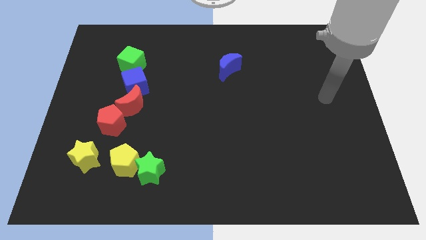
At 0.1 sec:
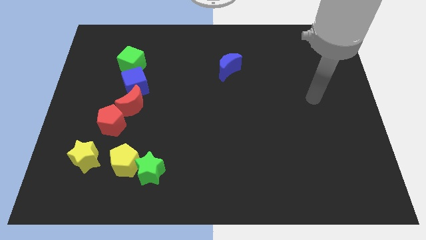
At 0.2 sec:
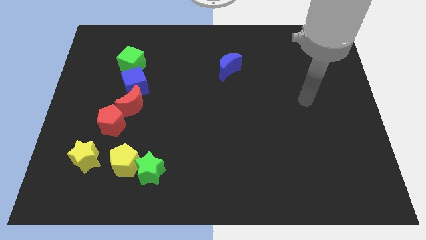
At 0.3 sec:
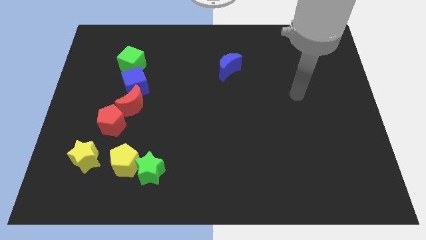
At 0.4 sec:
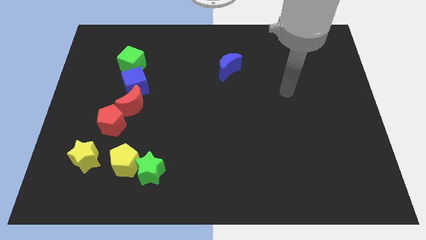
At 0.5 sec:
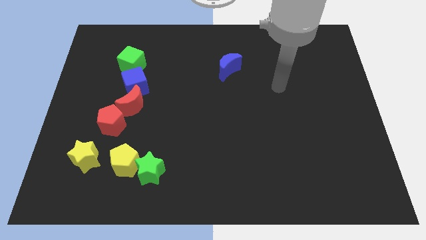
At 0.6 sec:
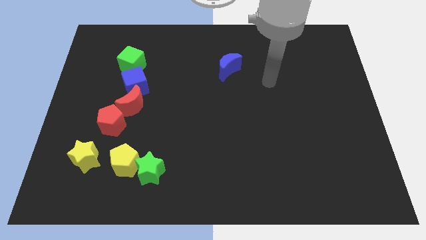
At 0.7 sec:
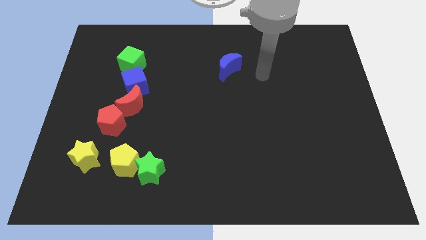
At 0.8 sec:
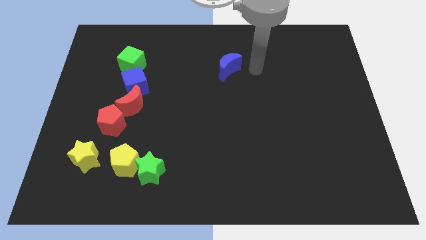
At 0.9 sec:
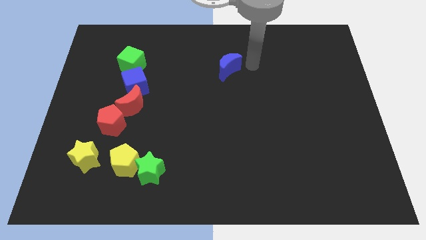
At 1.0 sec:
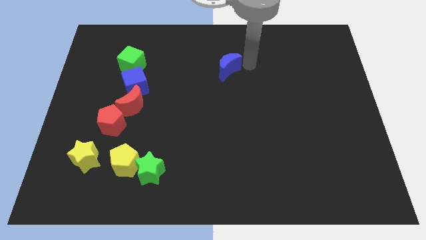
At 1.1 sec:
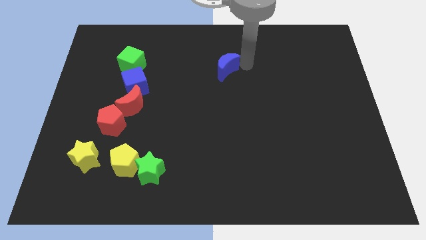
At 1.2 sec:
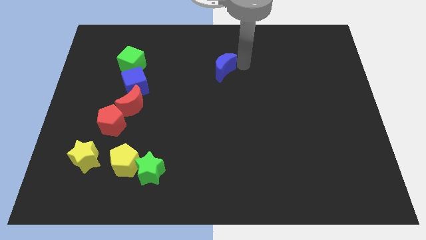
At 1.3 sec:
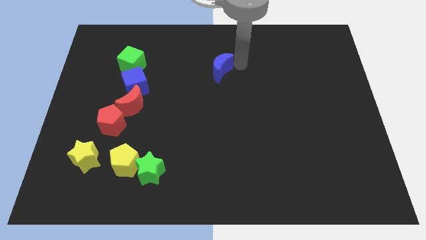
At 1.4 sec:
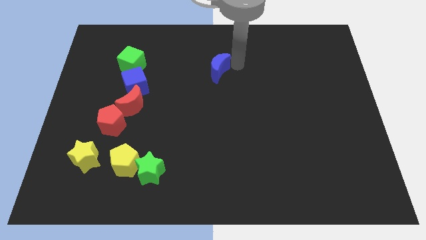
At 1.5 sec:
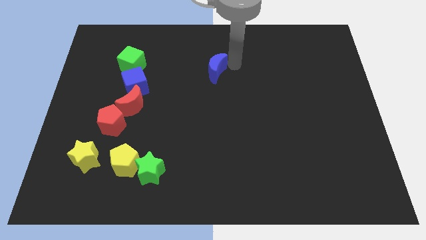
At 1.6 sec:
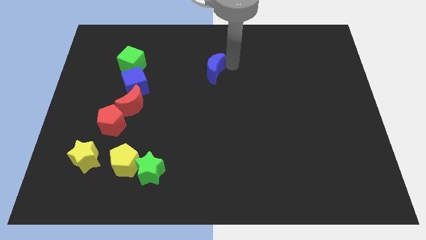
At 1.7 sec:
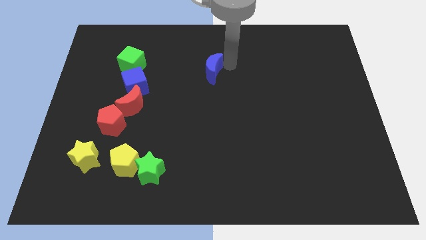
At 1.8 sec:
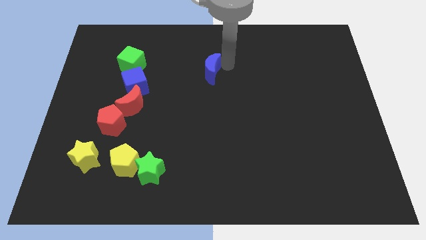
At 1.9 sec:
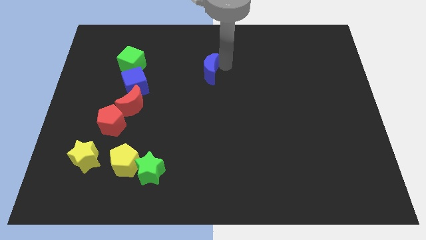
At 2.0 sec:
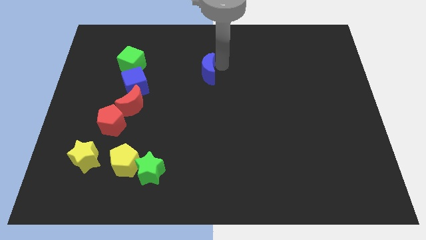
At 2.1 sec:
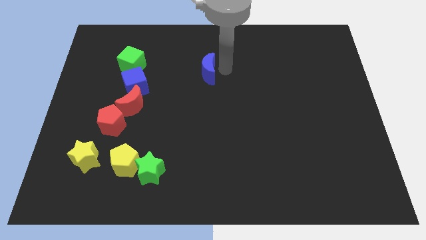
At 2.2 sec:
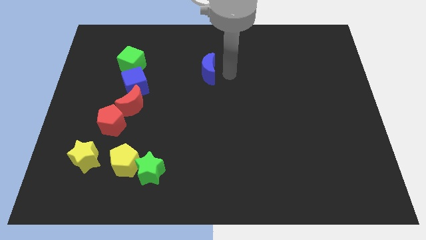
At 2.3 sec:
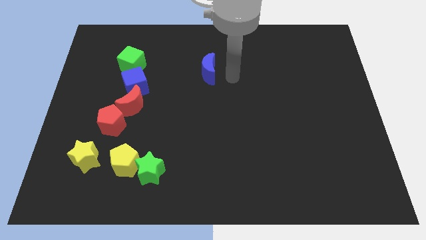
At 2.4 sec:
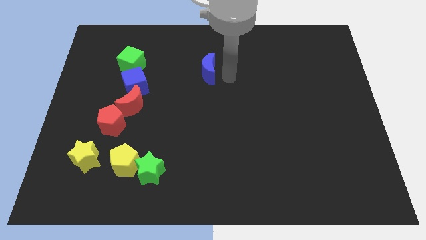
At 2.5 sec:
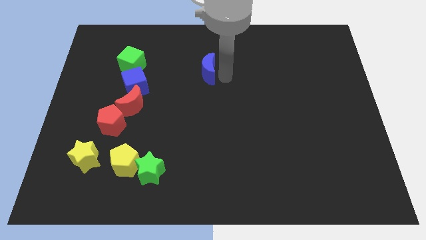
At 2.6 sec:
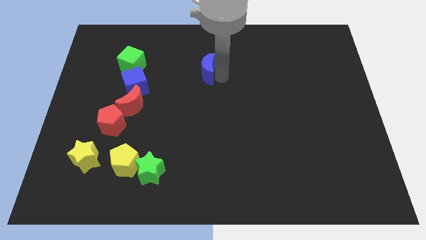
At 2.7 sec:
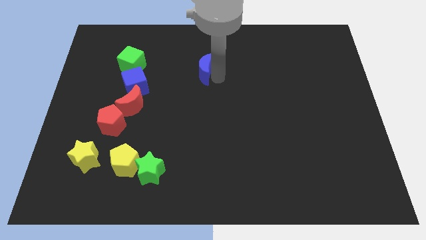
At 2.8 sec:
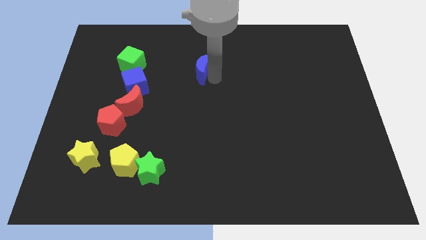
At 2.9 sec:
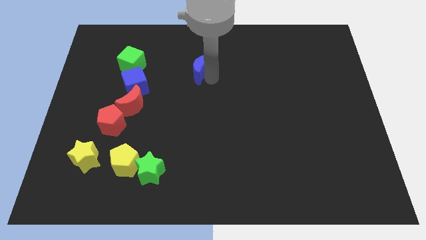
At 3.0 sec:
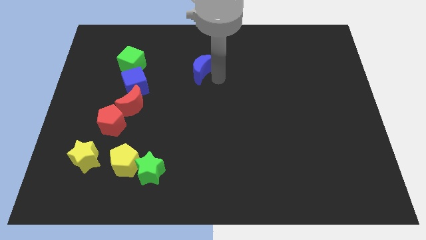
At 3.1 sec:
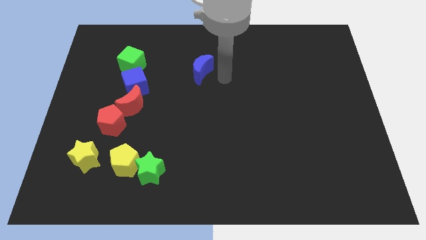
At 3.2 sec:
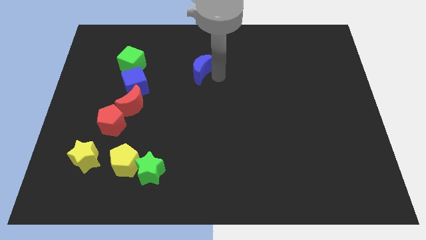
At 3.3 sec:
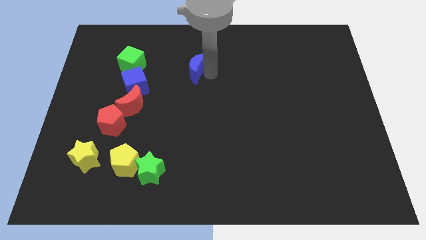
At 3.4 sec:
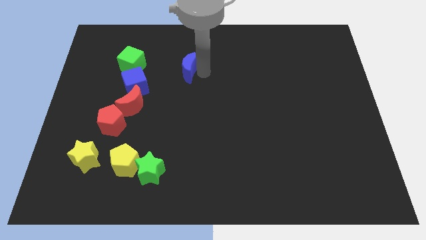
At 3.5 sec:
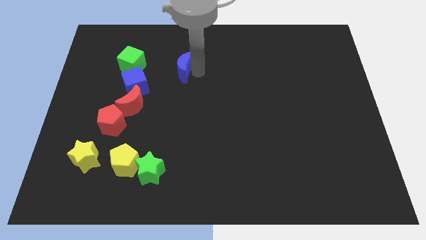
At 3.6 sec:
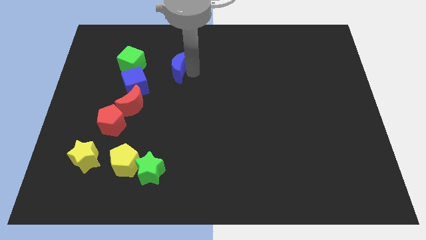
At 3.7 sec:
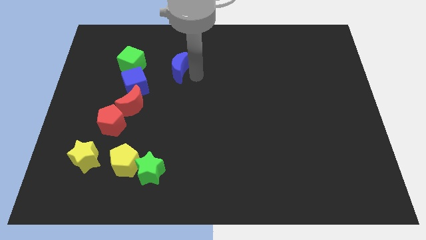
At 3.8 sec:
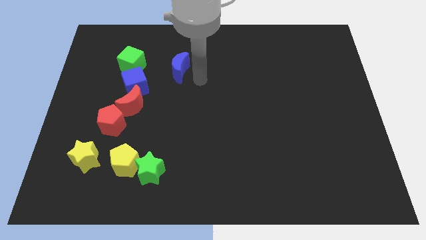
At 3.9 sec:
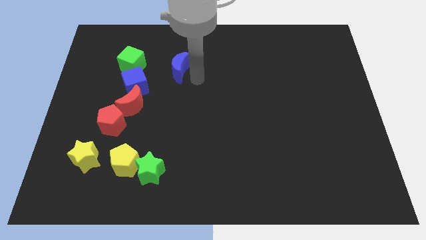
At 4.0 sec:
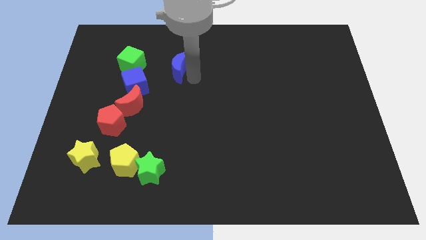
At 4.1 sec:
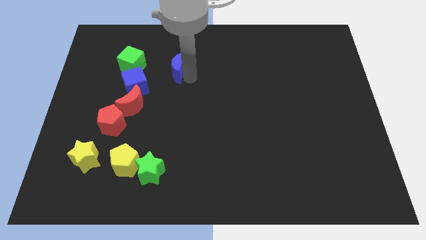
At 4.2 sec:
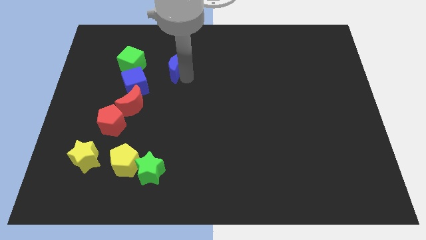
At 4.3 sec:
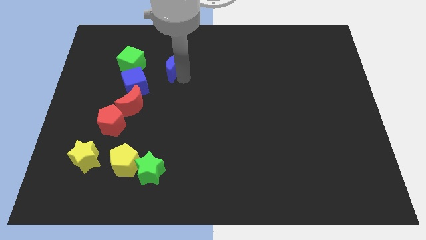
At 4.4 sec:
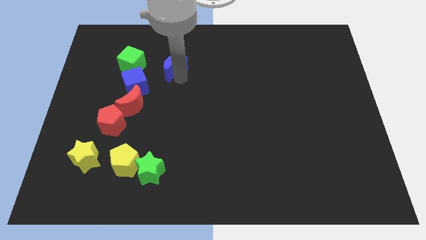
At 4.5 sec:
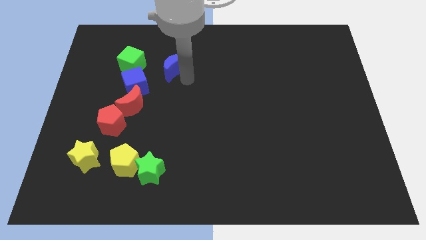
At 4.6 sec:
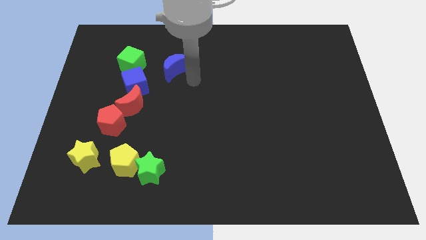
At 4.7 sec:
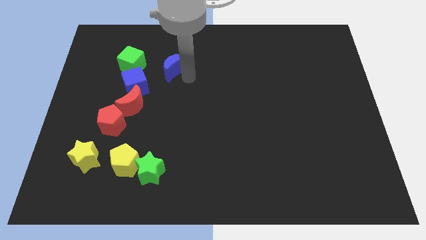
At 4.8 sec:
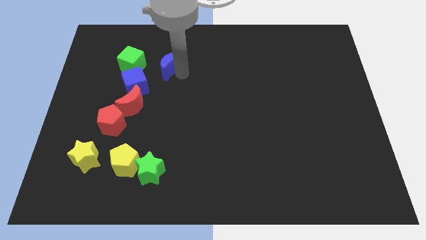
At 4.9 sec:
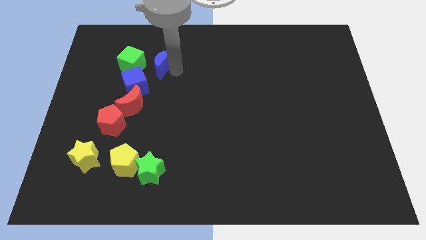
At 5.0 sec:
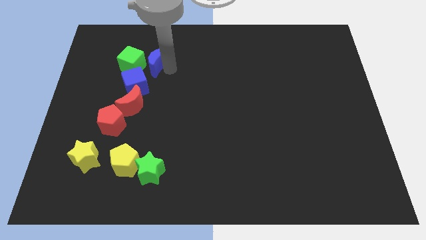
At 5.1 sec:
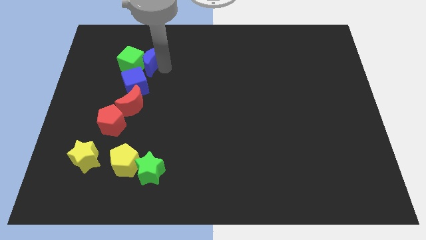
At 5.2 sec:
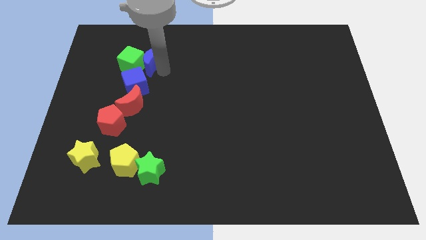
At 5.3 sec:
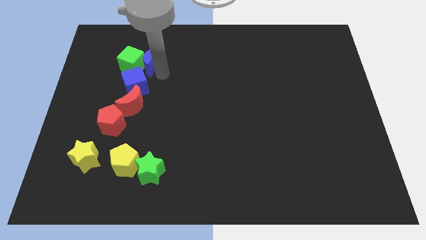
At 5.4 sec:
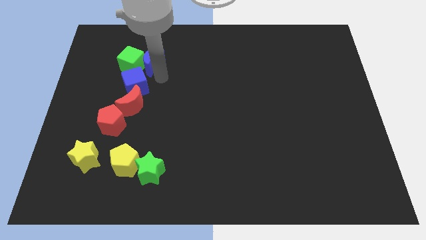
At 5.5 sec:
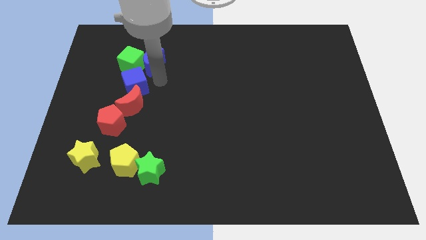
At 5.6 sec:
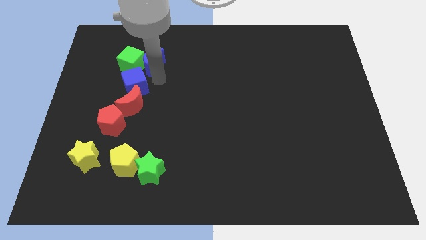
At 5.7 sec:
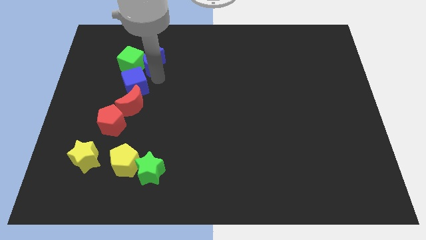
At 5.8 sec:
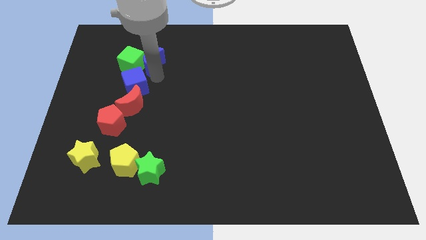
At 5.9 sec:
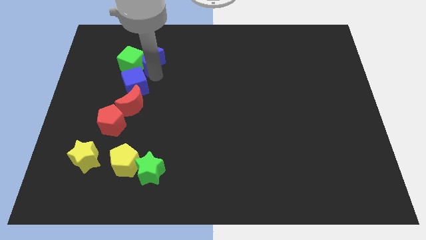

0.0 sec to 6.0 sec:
push the blue moon left

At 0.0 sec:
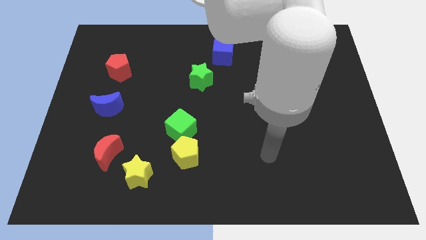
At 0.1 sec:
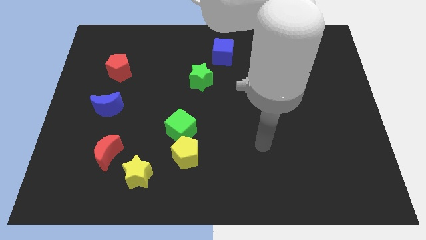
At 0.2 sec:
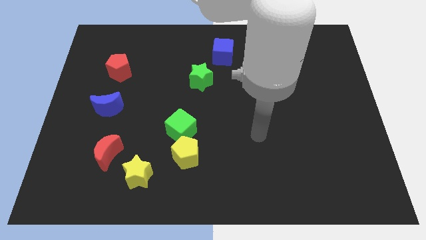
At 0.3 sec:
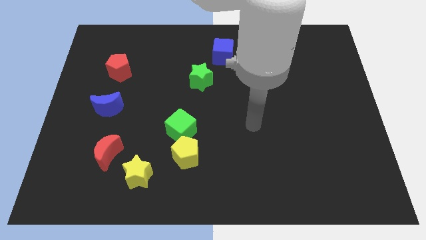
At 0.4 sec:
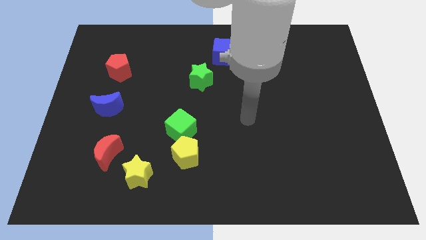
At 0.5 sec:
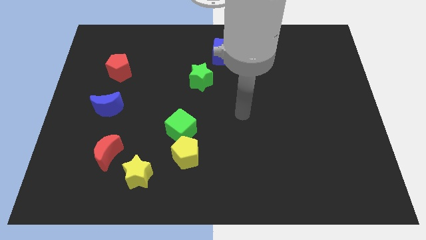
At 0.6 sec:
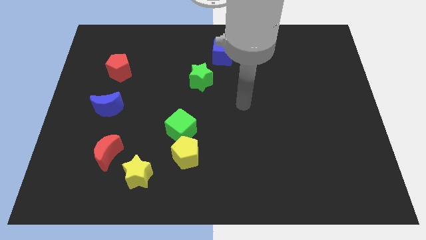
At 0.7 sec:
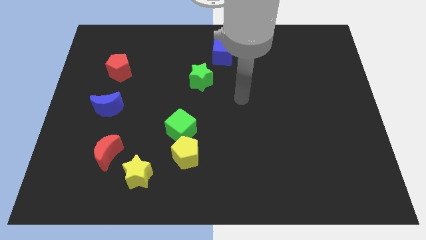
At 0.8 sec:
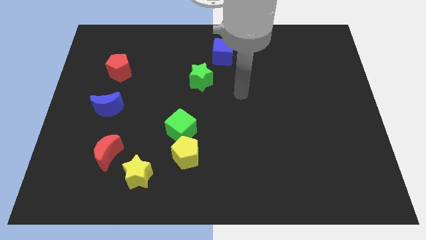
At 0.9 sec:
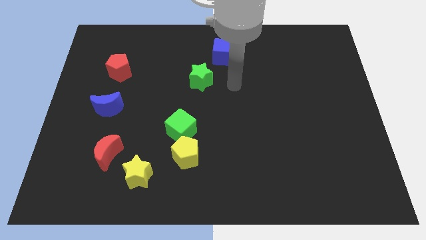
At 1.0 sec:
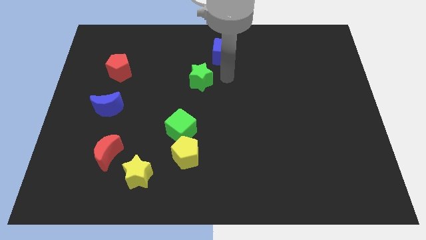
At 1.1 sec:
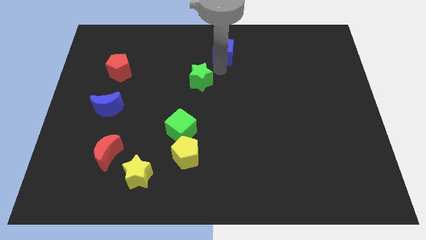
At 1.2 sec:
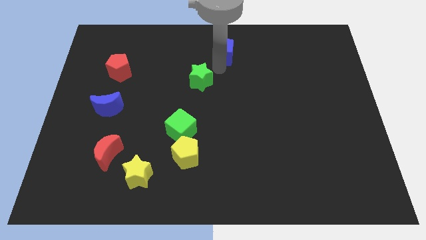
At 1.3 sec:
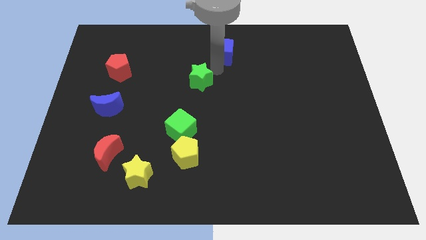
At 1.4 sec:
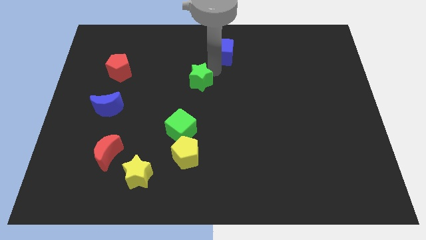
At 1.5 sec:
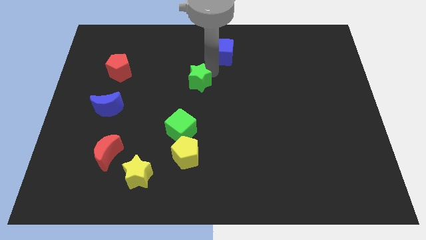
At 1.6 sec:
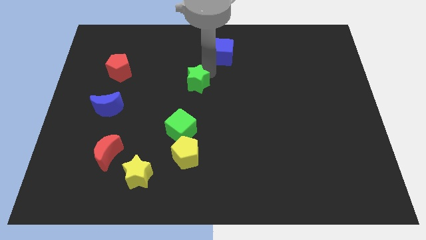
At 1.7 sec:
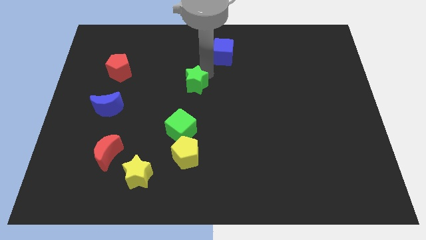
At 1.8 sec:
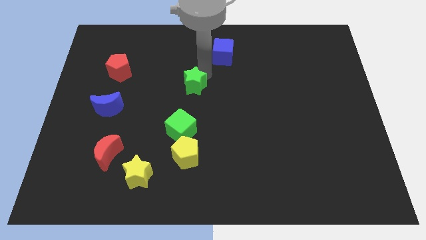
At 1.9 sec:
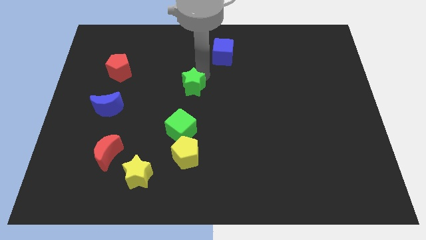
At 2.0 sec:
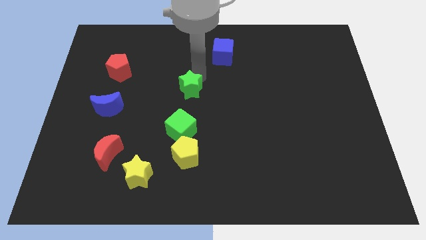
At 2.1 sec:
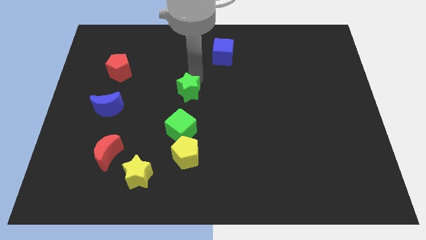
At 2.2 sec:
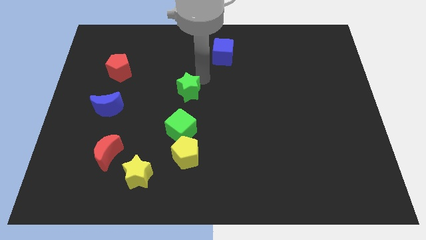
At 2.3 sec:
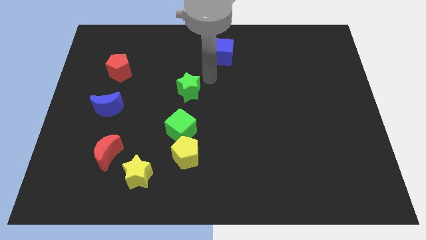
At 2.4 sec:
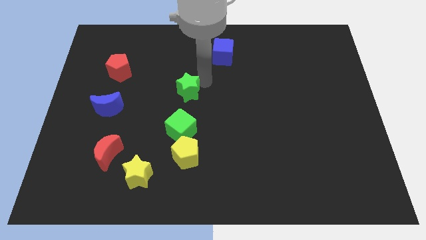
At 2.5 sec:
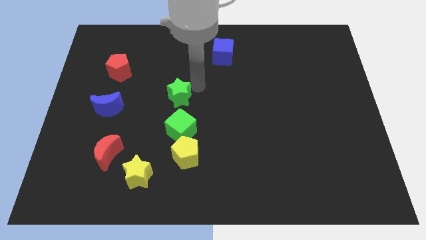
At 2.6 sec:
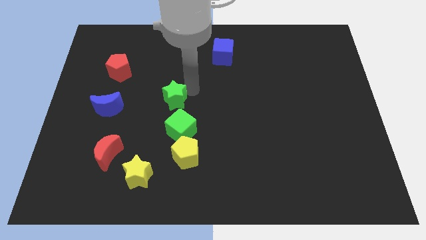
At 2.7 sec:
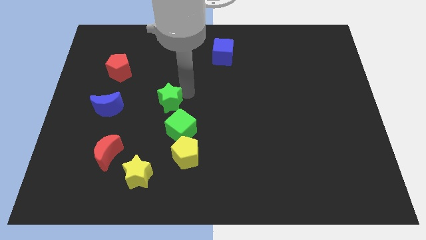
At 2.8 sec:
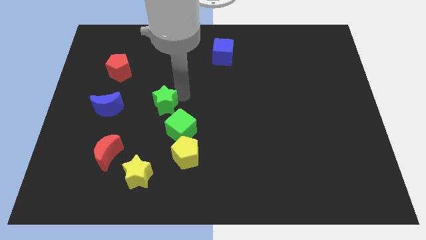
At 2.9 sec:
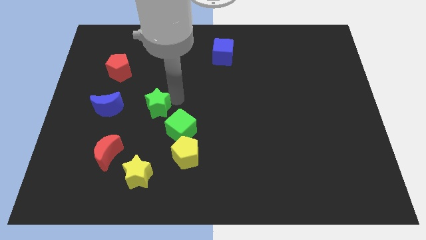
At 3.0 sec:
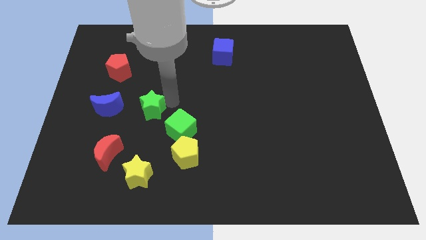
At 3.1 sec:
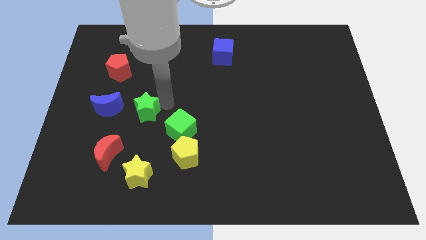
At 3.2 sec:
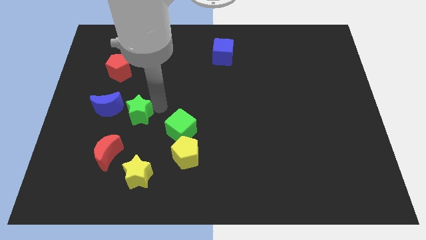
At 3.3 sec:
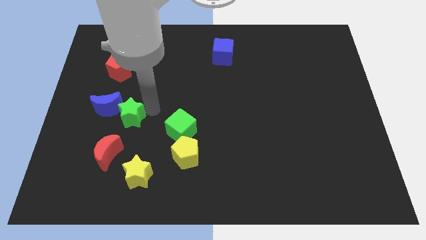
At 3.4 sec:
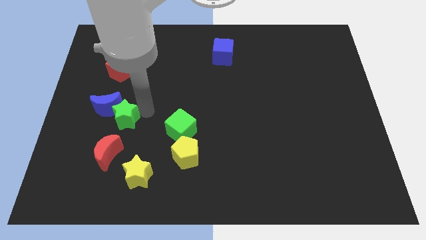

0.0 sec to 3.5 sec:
slide the green star down and then left
